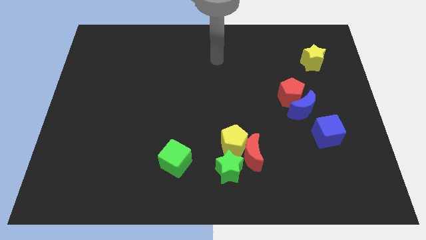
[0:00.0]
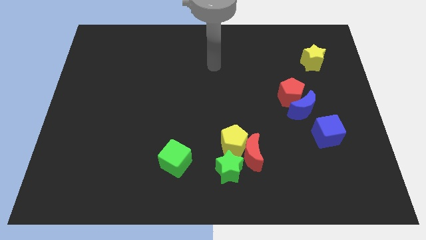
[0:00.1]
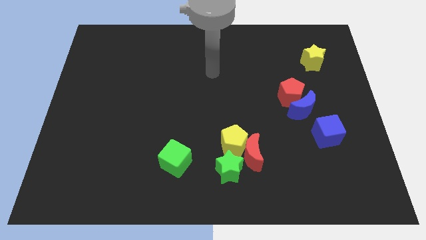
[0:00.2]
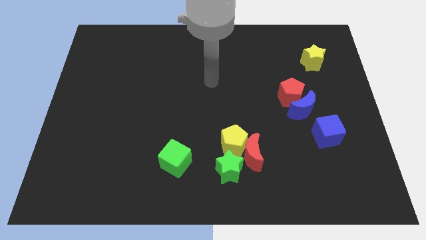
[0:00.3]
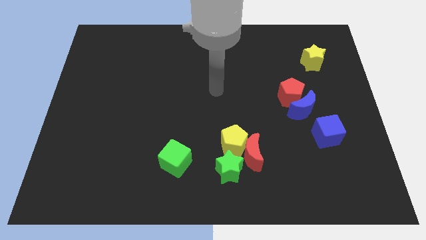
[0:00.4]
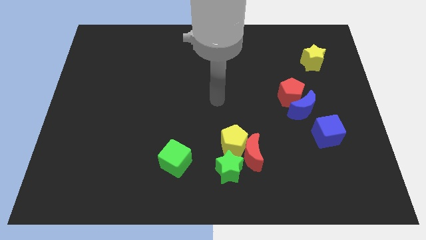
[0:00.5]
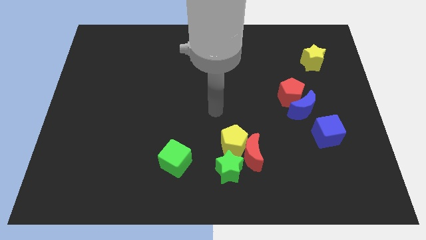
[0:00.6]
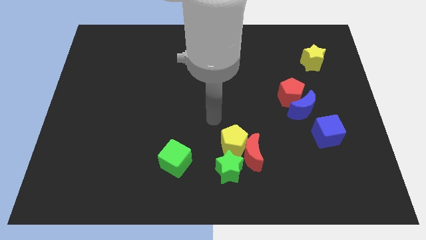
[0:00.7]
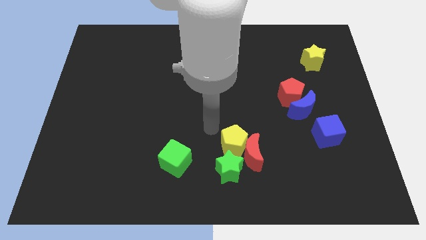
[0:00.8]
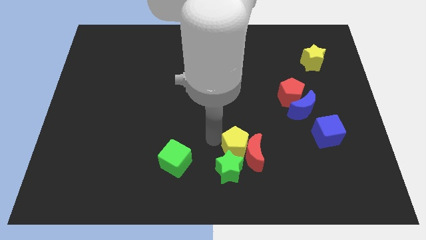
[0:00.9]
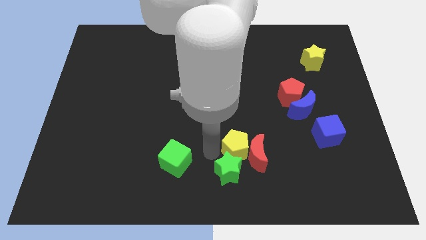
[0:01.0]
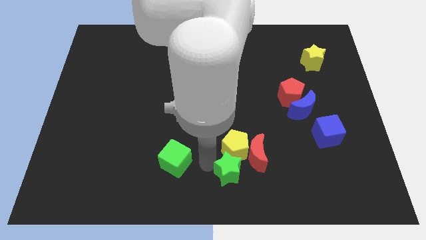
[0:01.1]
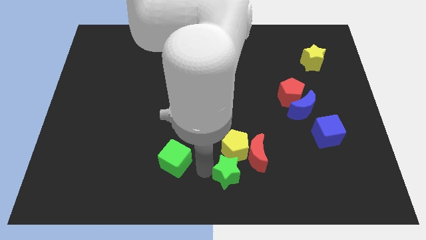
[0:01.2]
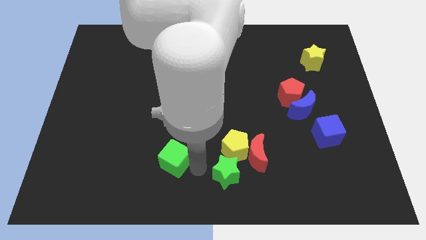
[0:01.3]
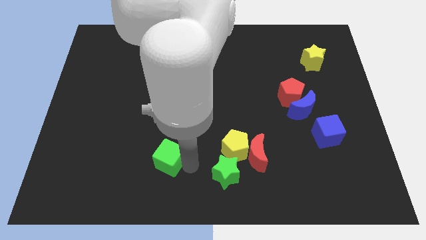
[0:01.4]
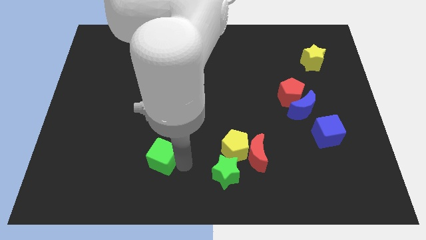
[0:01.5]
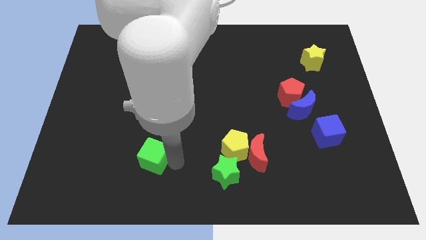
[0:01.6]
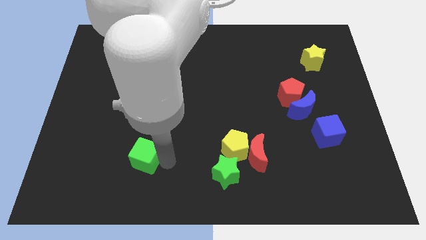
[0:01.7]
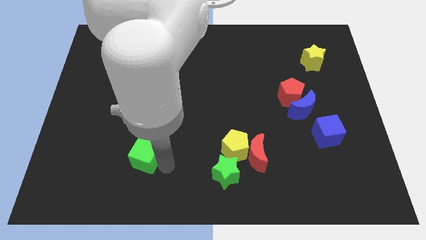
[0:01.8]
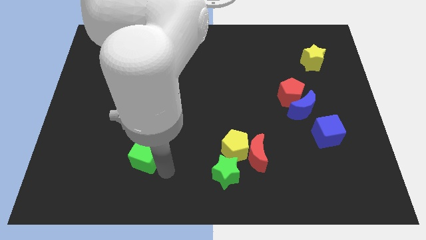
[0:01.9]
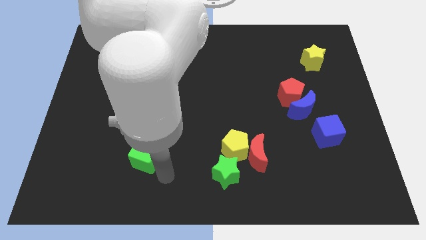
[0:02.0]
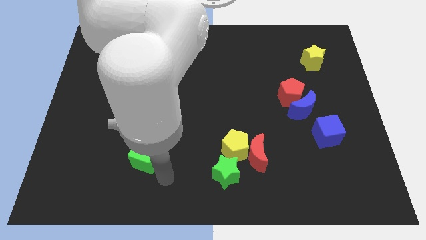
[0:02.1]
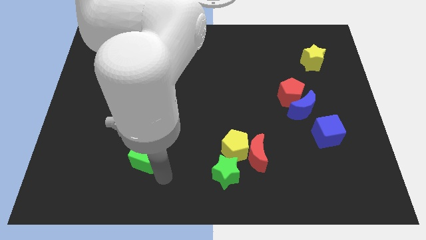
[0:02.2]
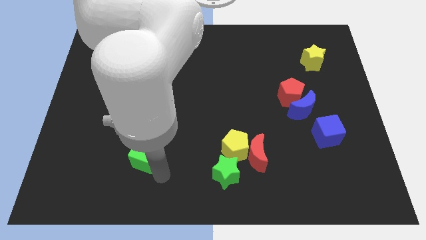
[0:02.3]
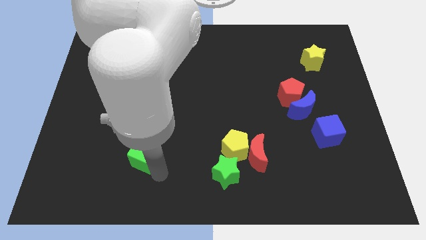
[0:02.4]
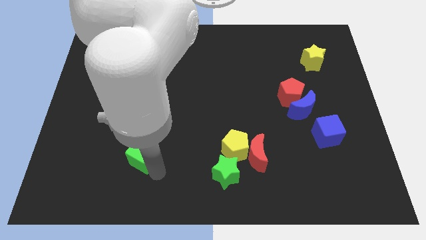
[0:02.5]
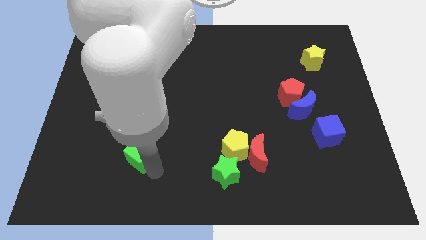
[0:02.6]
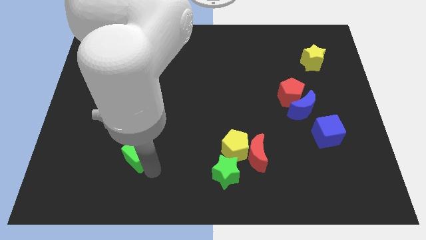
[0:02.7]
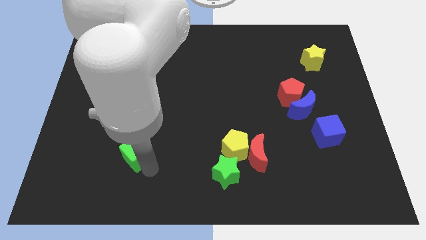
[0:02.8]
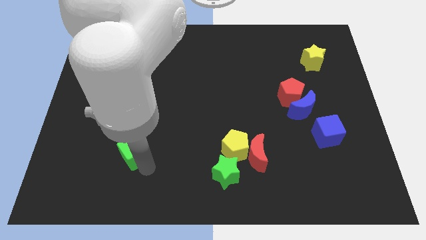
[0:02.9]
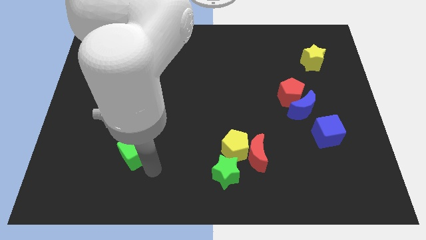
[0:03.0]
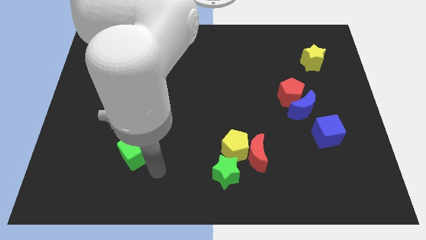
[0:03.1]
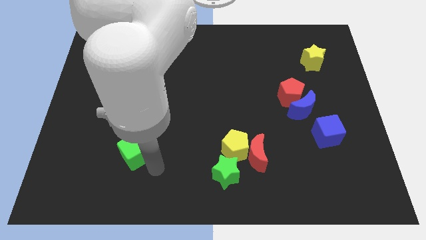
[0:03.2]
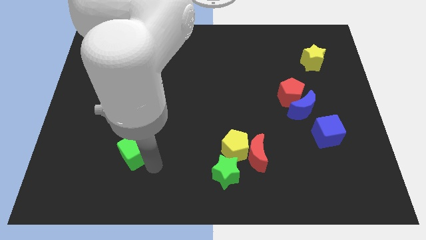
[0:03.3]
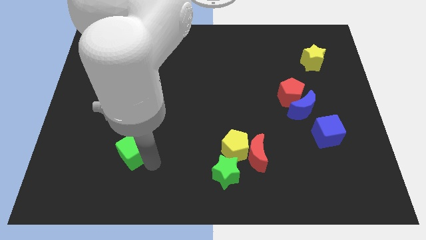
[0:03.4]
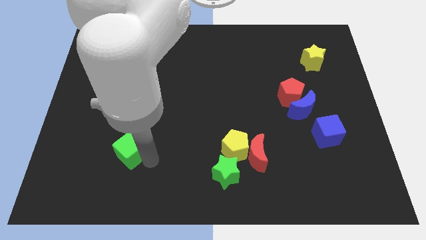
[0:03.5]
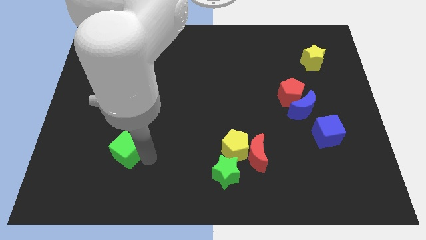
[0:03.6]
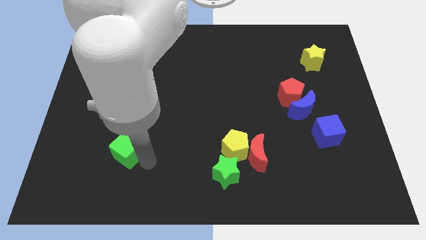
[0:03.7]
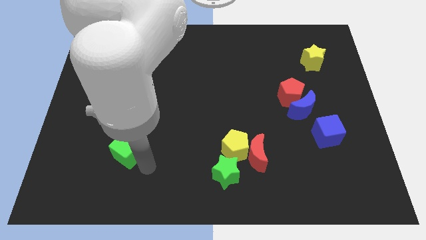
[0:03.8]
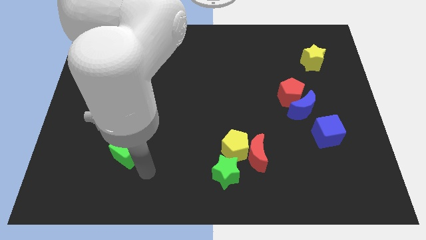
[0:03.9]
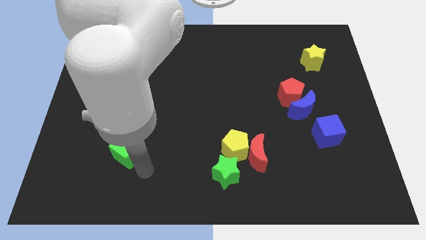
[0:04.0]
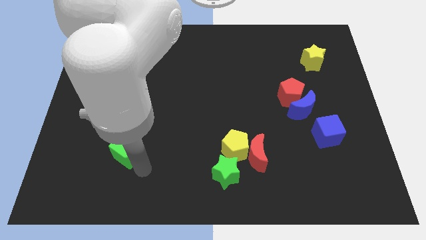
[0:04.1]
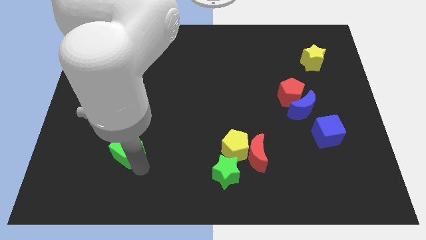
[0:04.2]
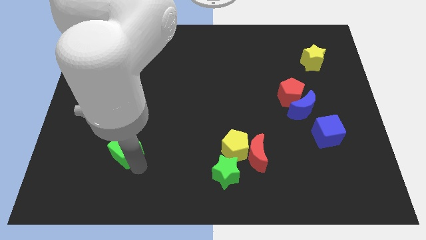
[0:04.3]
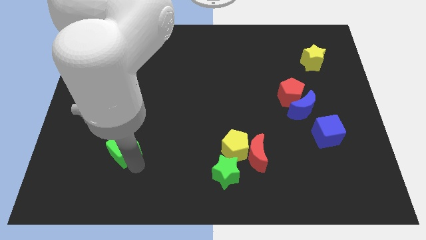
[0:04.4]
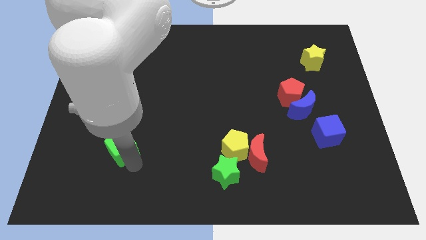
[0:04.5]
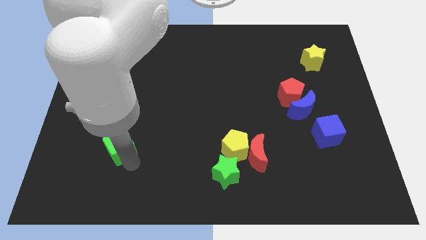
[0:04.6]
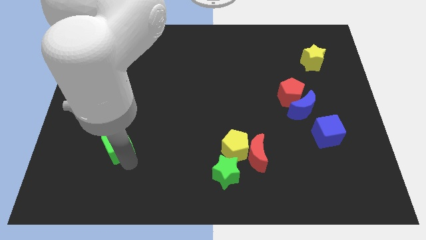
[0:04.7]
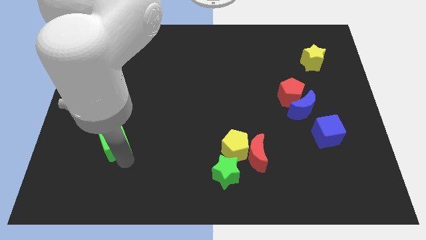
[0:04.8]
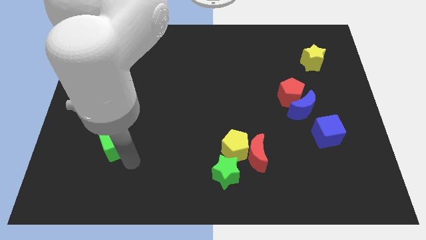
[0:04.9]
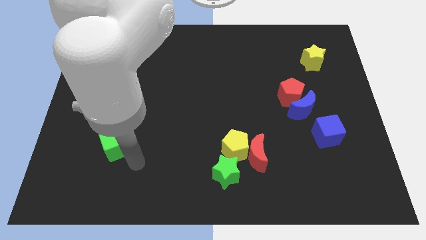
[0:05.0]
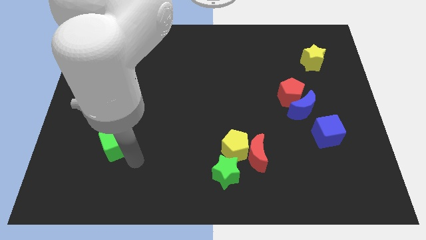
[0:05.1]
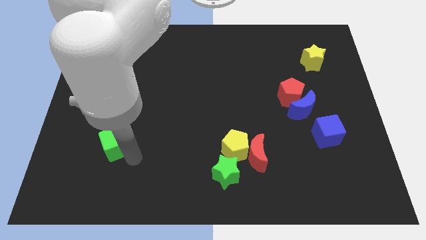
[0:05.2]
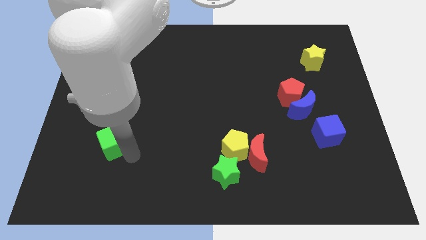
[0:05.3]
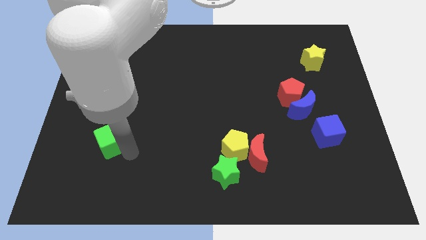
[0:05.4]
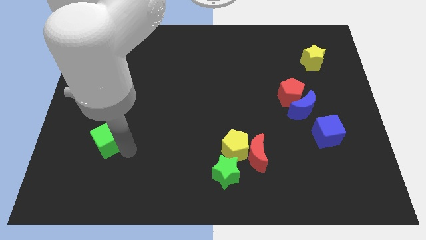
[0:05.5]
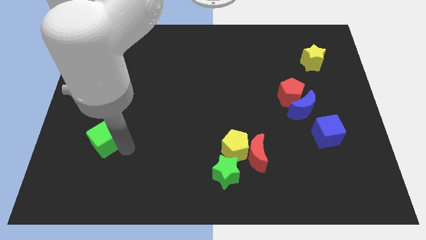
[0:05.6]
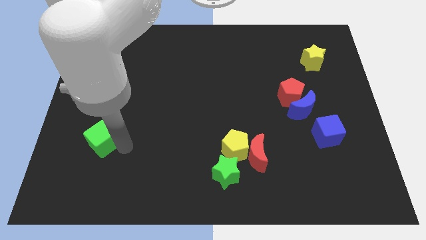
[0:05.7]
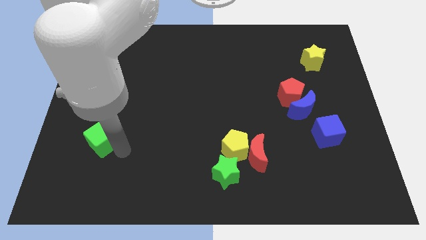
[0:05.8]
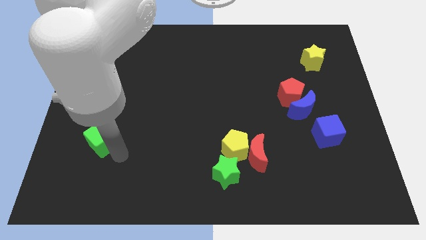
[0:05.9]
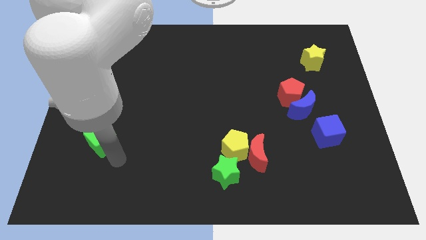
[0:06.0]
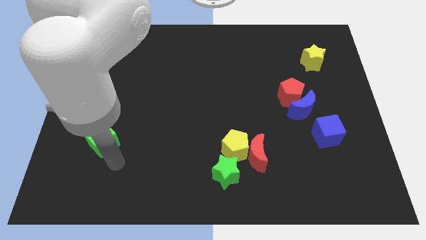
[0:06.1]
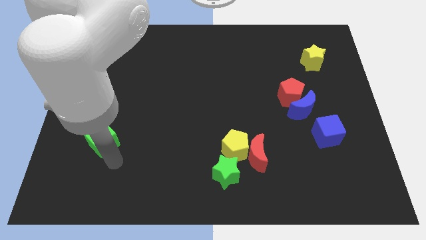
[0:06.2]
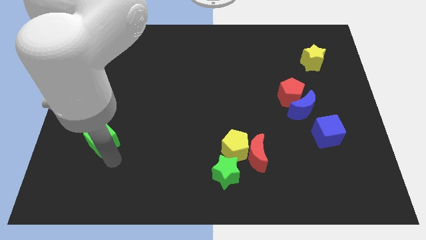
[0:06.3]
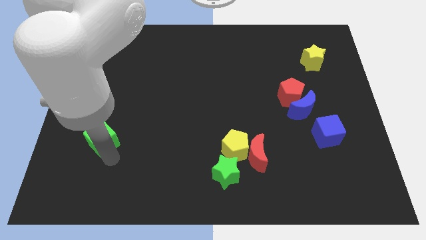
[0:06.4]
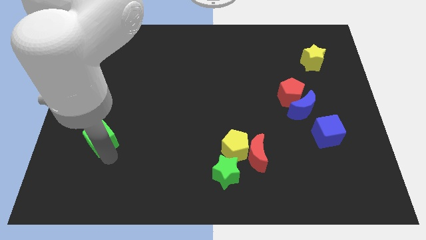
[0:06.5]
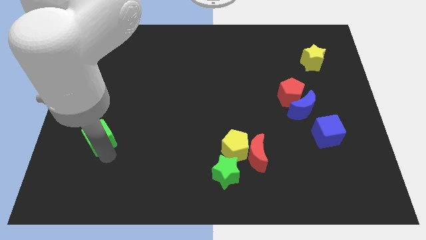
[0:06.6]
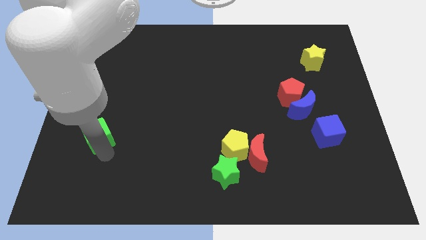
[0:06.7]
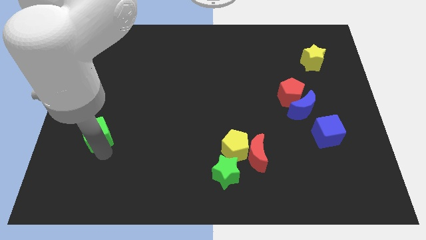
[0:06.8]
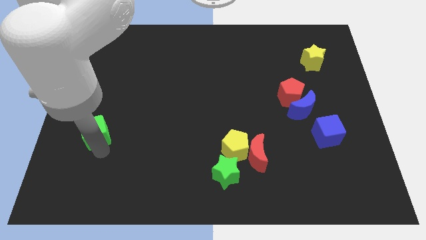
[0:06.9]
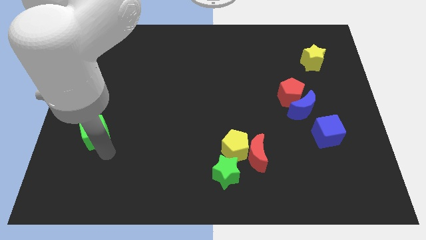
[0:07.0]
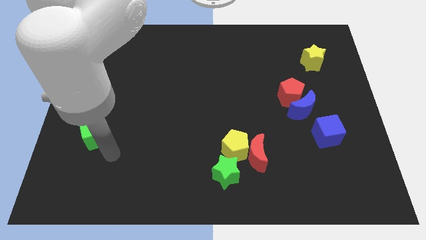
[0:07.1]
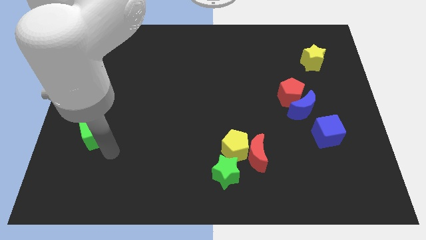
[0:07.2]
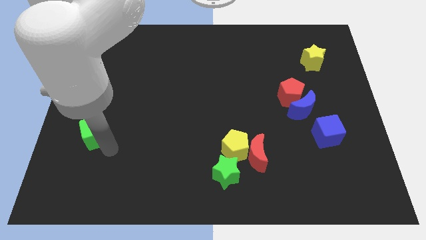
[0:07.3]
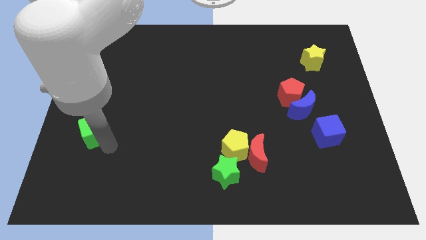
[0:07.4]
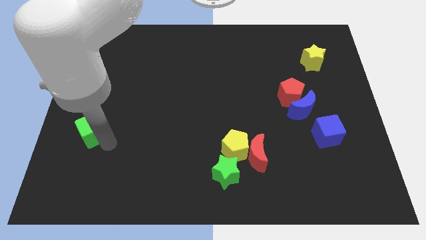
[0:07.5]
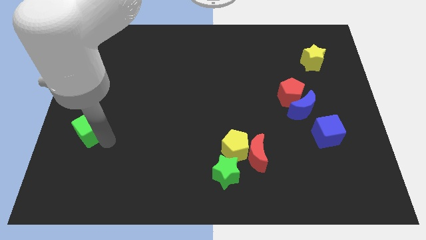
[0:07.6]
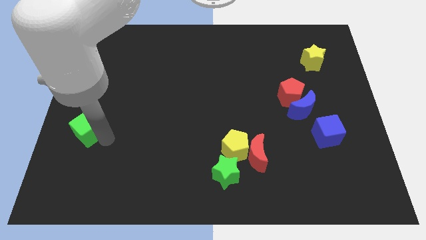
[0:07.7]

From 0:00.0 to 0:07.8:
push the green cube to the left side of the board

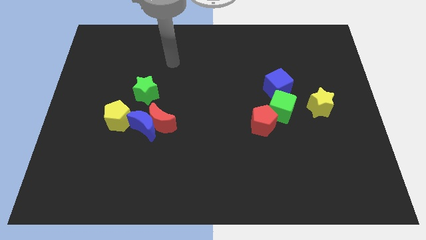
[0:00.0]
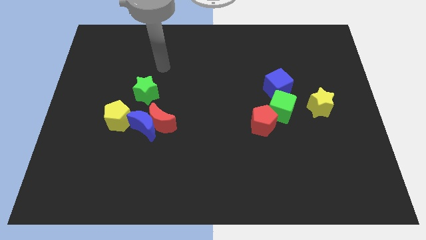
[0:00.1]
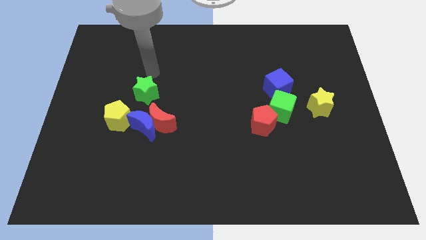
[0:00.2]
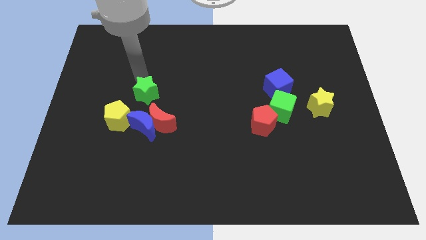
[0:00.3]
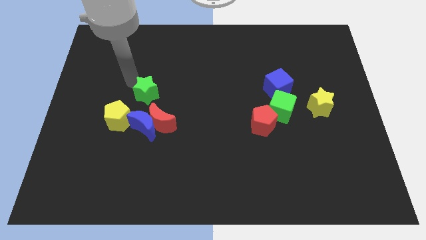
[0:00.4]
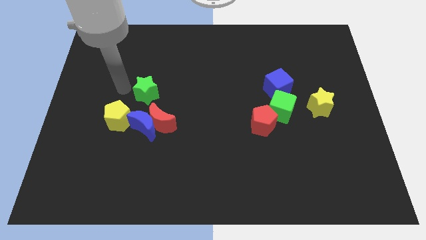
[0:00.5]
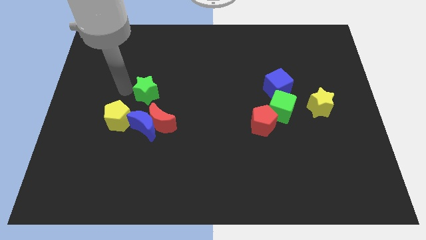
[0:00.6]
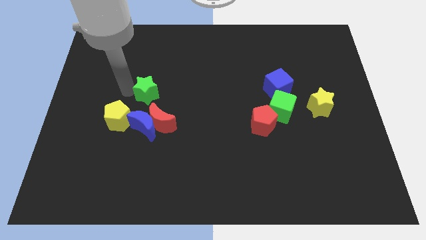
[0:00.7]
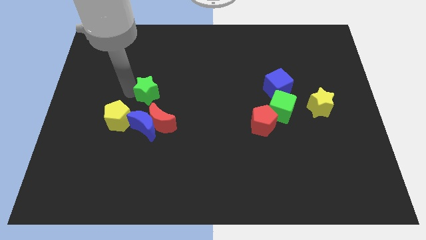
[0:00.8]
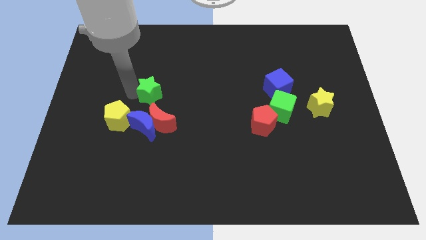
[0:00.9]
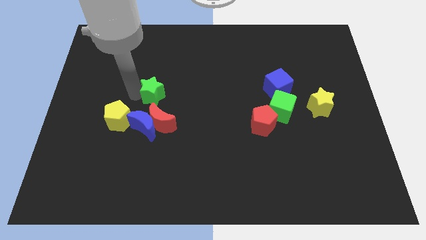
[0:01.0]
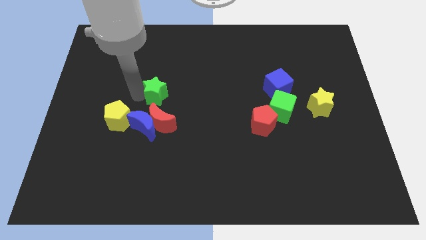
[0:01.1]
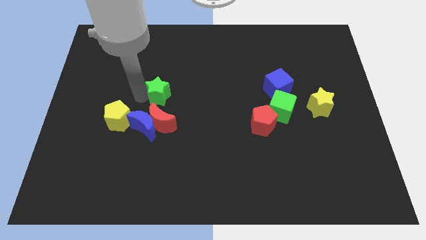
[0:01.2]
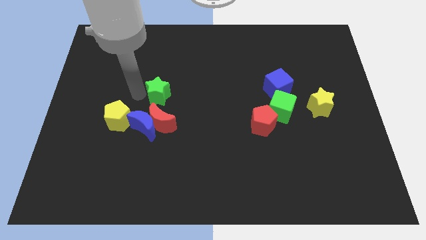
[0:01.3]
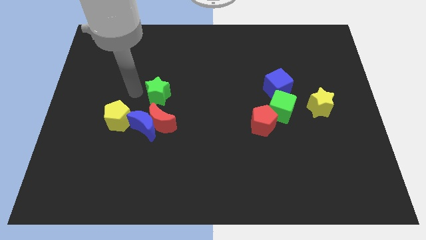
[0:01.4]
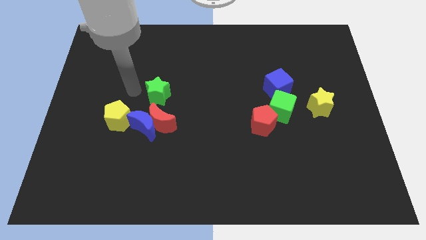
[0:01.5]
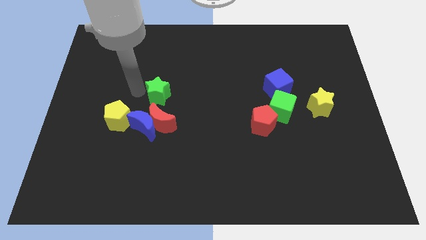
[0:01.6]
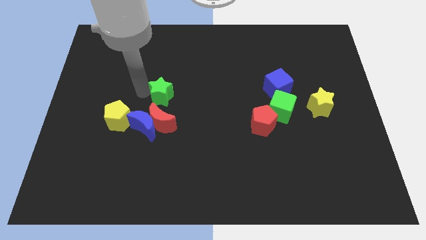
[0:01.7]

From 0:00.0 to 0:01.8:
move the green star to the middle
